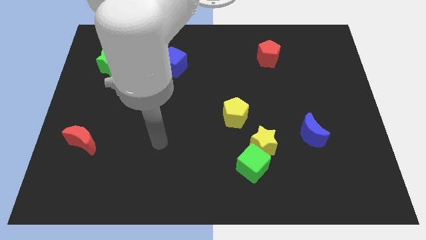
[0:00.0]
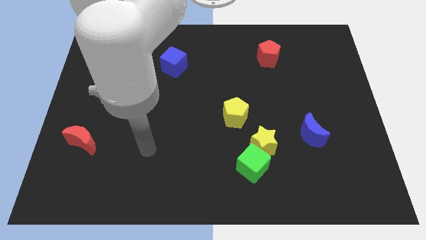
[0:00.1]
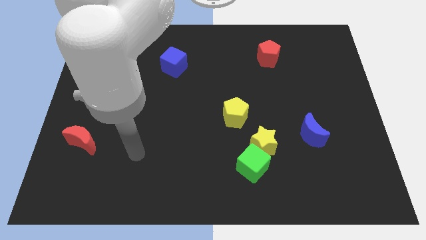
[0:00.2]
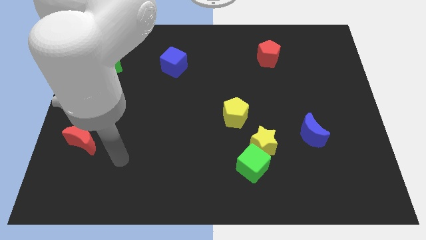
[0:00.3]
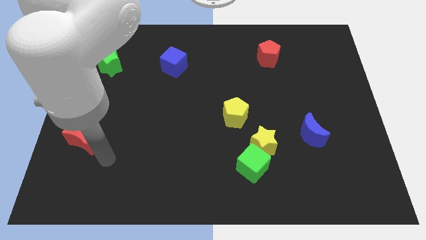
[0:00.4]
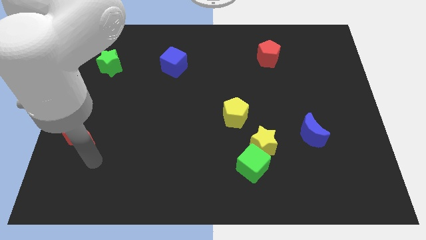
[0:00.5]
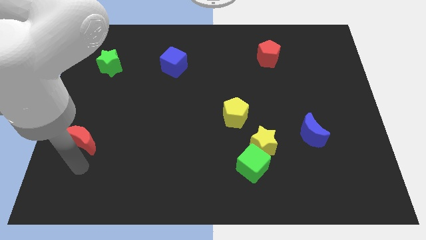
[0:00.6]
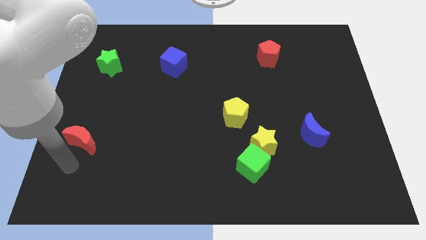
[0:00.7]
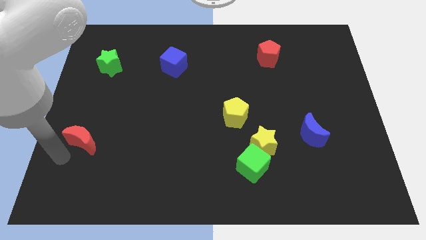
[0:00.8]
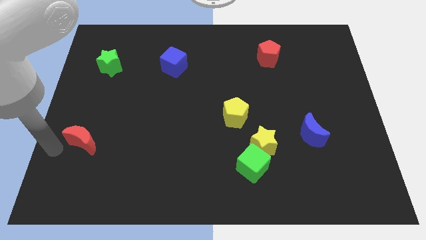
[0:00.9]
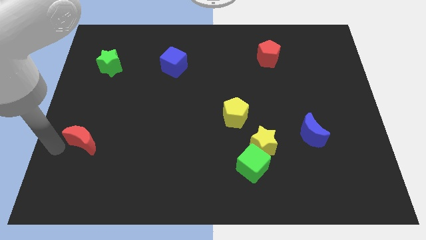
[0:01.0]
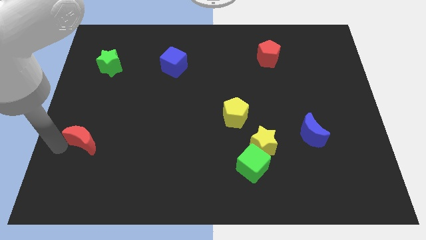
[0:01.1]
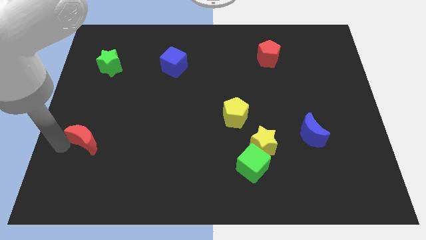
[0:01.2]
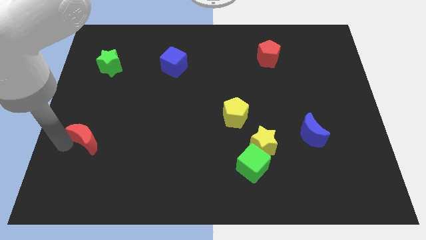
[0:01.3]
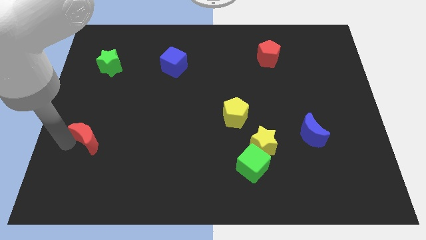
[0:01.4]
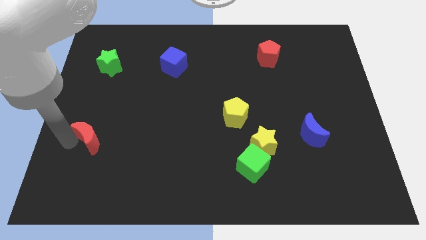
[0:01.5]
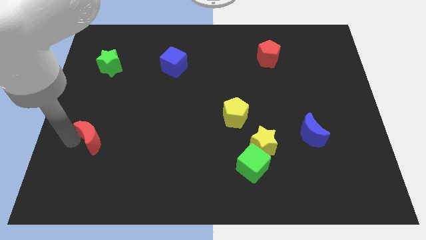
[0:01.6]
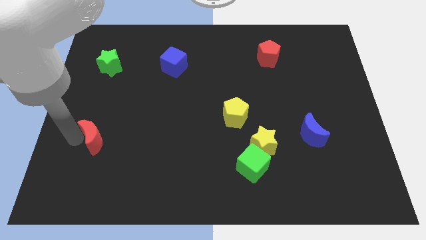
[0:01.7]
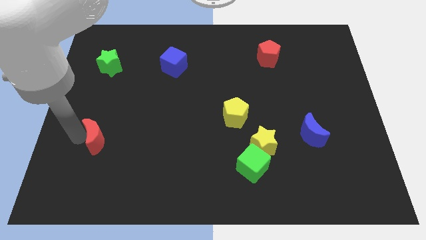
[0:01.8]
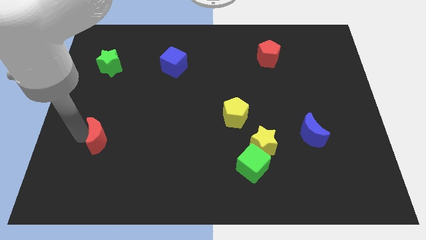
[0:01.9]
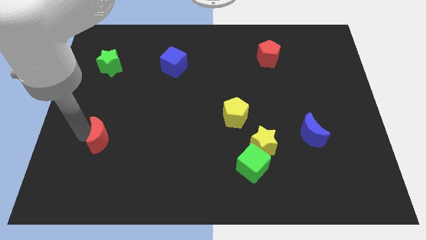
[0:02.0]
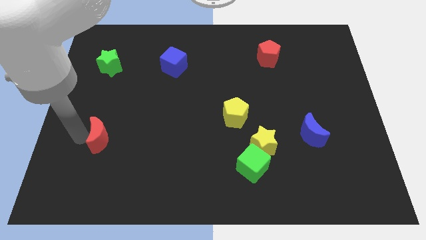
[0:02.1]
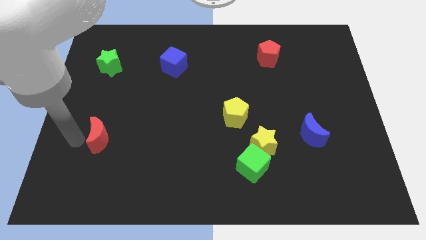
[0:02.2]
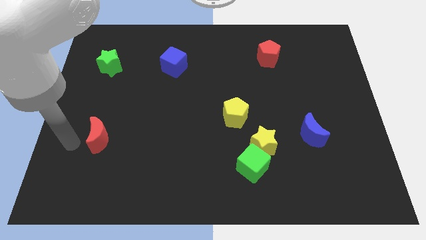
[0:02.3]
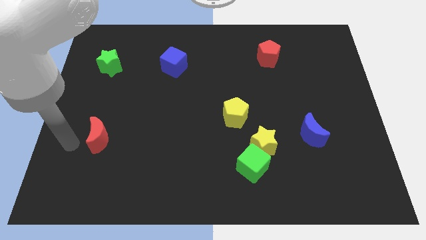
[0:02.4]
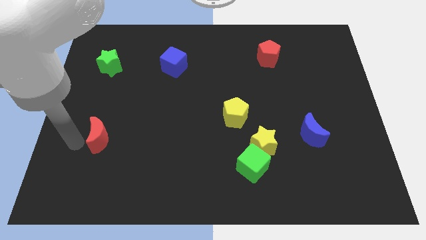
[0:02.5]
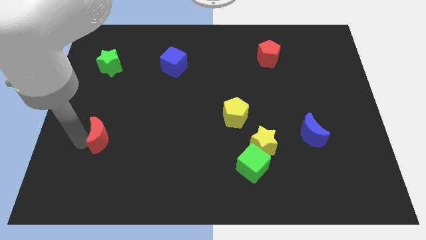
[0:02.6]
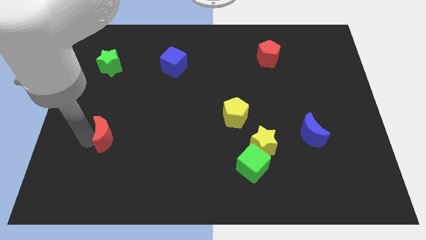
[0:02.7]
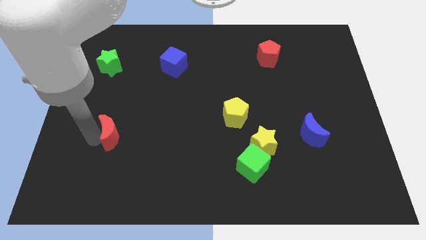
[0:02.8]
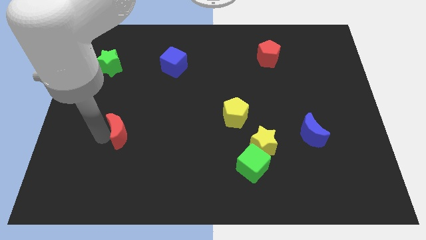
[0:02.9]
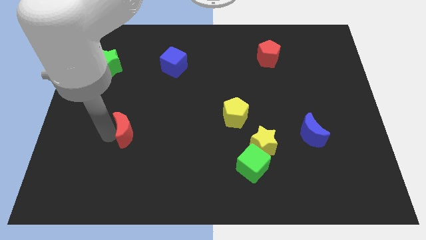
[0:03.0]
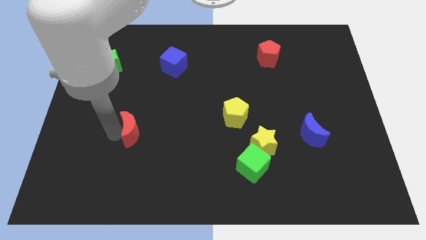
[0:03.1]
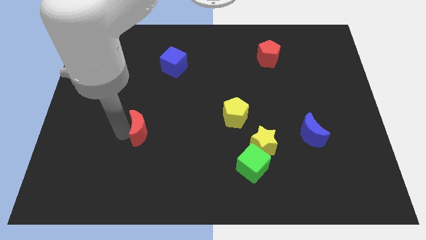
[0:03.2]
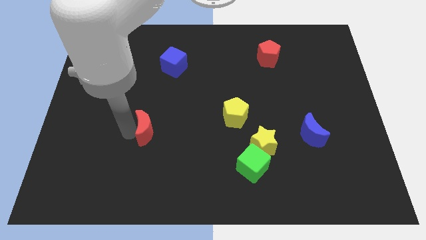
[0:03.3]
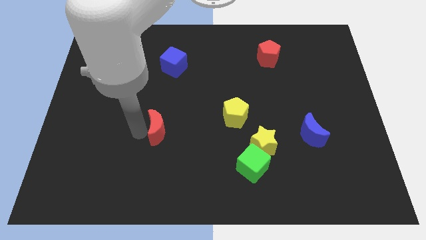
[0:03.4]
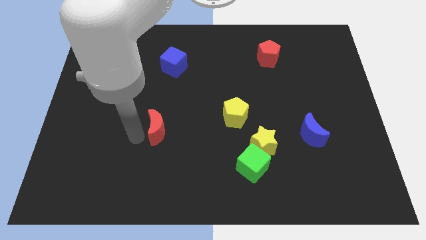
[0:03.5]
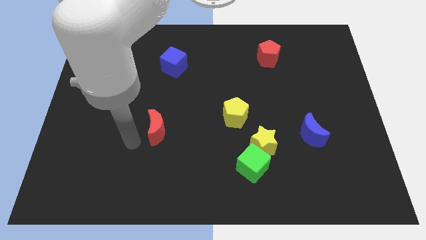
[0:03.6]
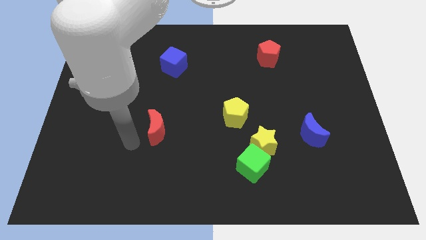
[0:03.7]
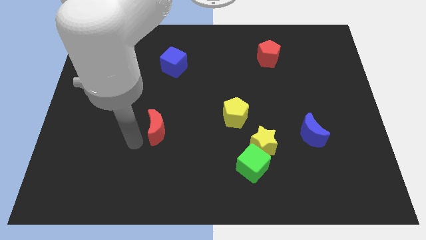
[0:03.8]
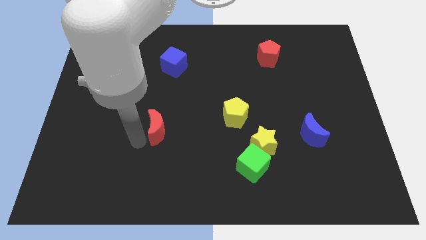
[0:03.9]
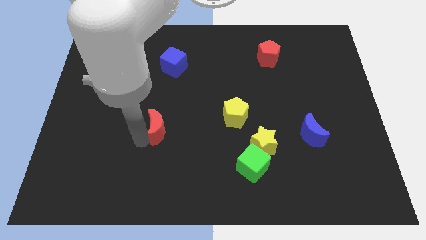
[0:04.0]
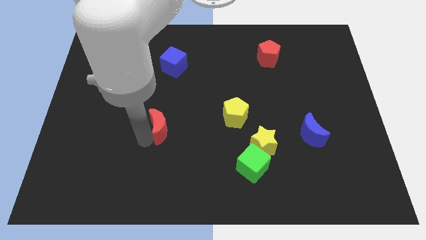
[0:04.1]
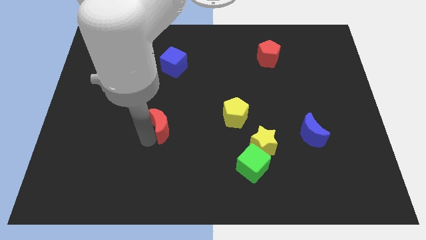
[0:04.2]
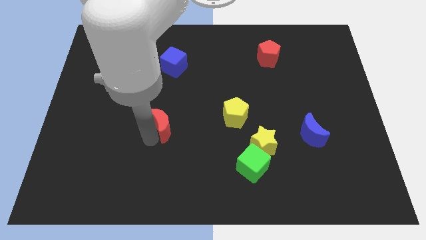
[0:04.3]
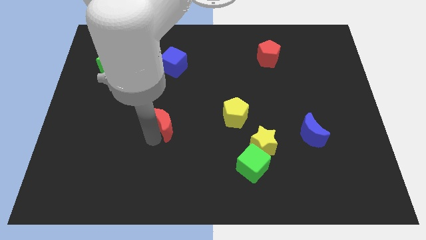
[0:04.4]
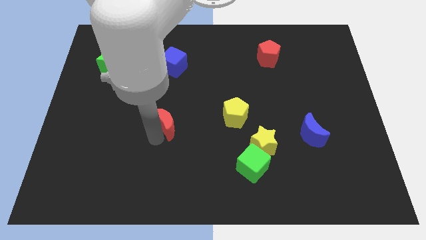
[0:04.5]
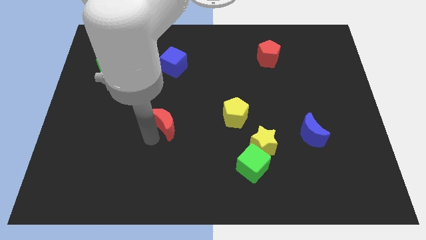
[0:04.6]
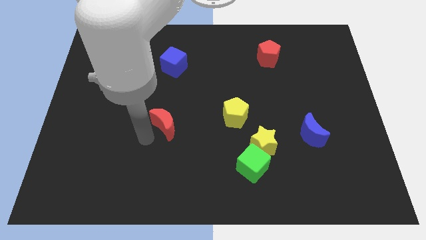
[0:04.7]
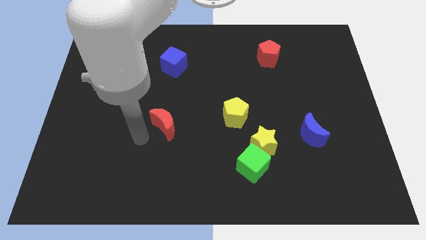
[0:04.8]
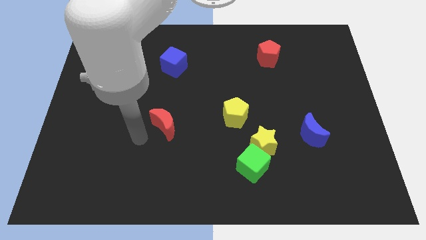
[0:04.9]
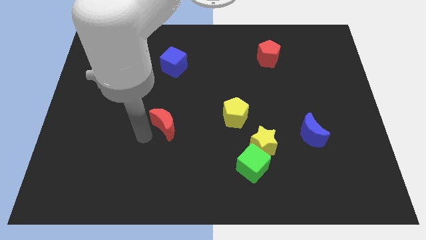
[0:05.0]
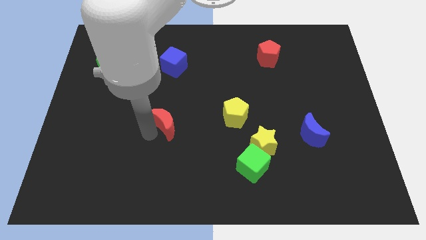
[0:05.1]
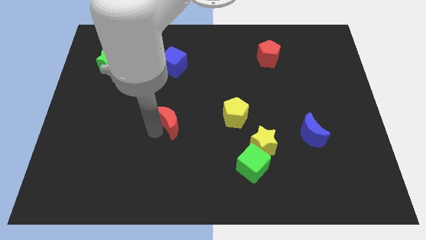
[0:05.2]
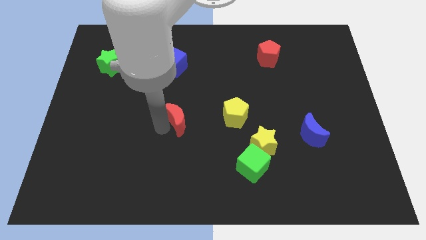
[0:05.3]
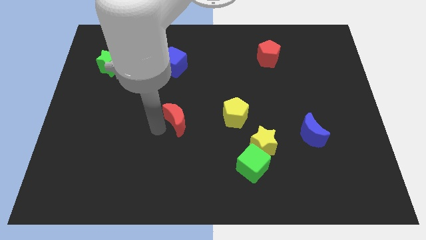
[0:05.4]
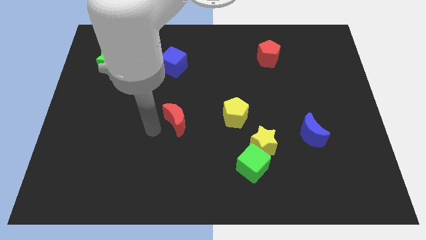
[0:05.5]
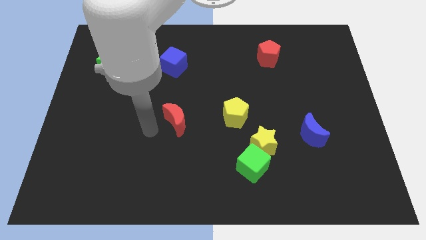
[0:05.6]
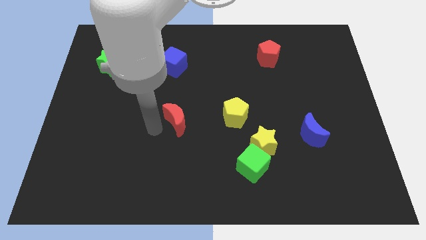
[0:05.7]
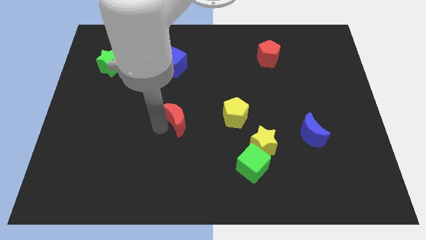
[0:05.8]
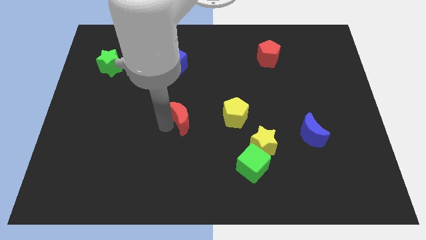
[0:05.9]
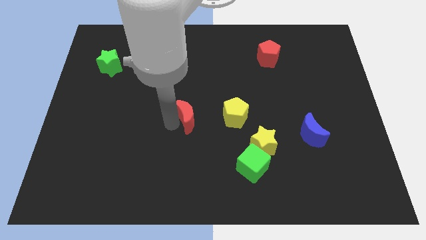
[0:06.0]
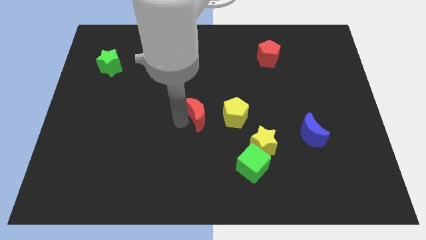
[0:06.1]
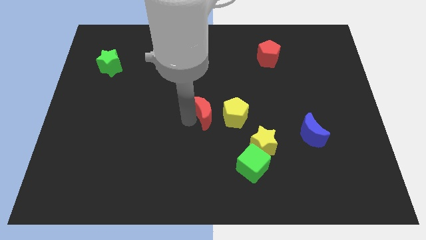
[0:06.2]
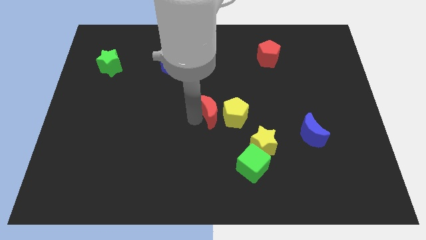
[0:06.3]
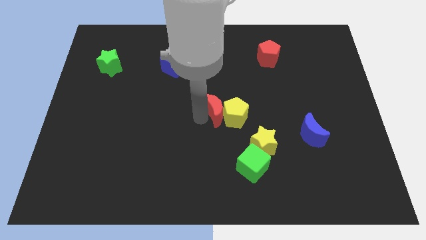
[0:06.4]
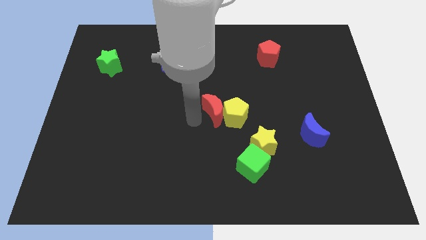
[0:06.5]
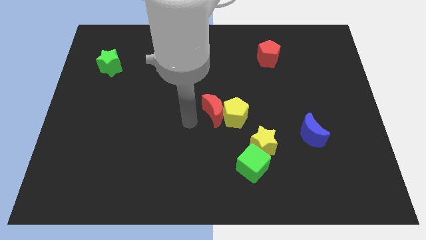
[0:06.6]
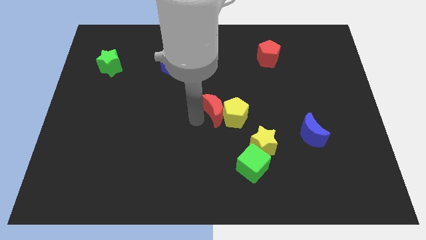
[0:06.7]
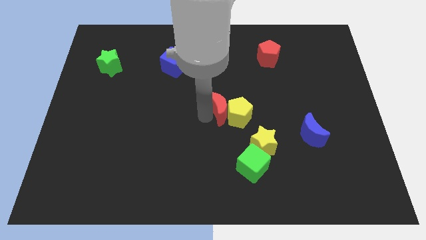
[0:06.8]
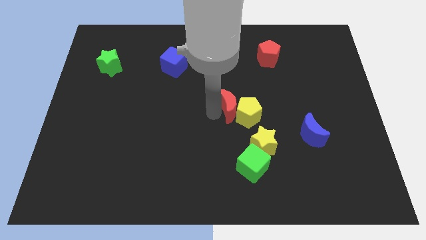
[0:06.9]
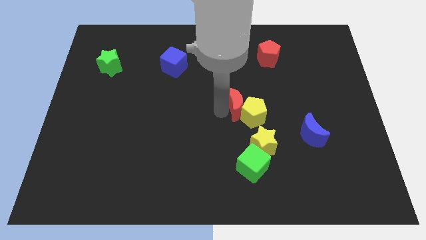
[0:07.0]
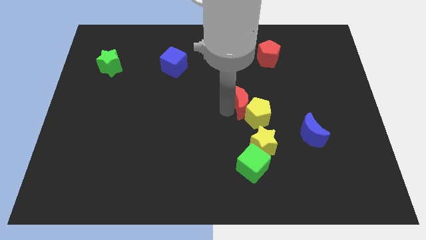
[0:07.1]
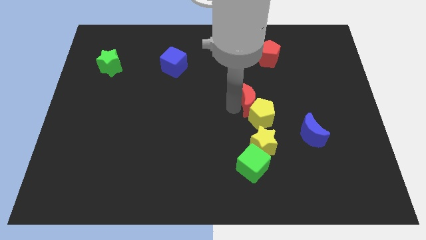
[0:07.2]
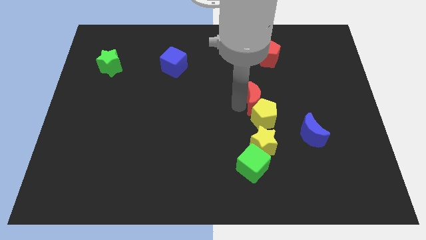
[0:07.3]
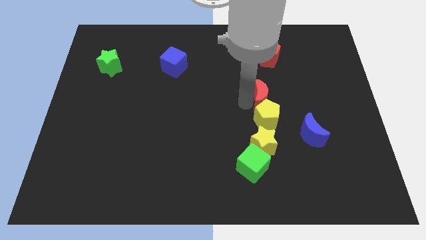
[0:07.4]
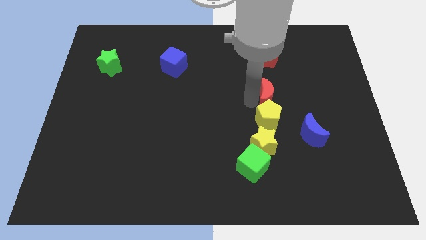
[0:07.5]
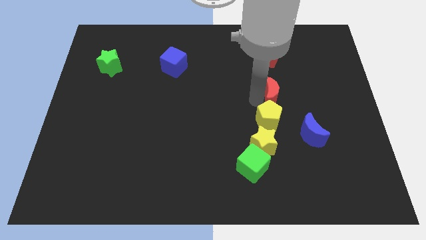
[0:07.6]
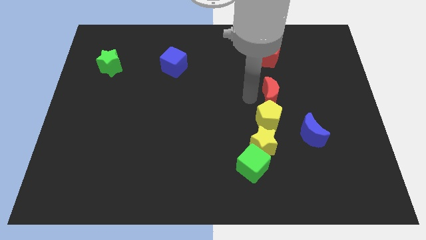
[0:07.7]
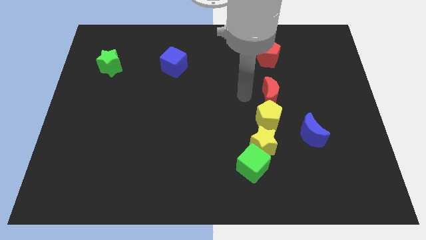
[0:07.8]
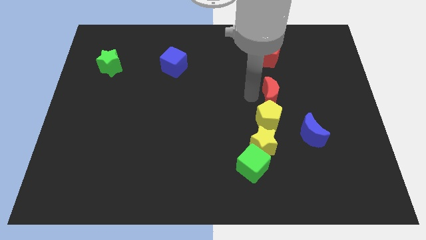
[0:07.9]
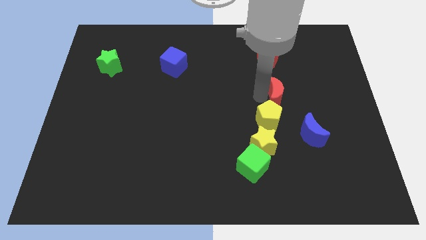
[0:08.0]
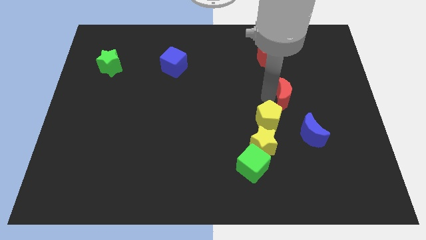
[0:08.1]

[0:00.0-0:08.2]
move the red moon to the top of the blue moon
